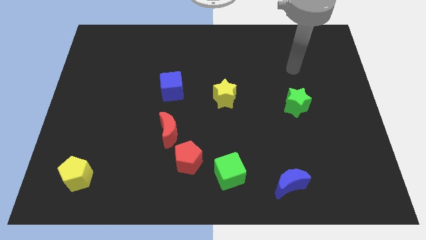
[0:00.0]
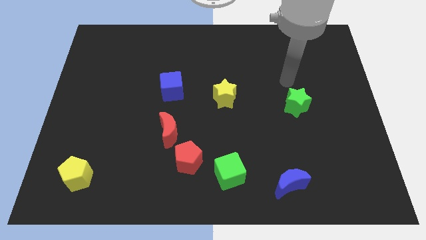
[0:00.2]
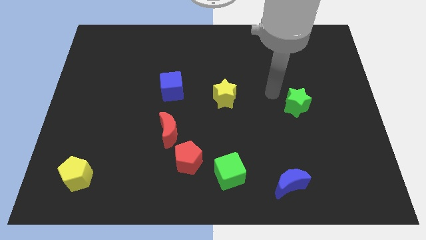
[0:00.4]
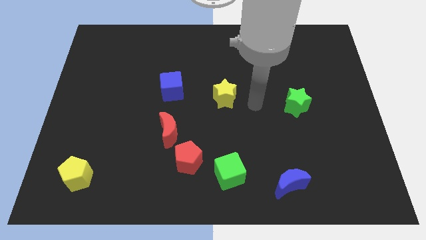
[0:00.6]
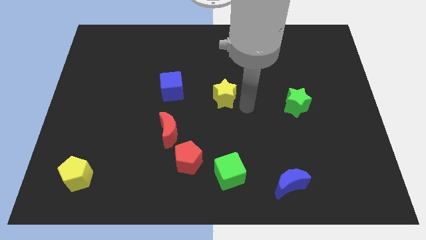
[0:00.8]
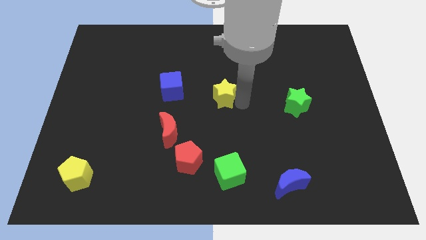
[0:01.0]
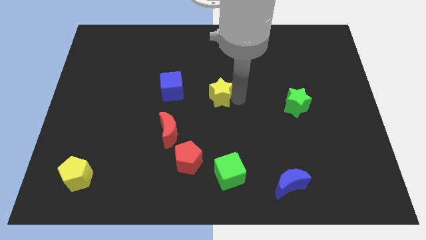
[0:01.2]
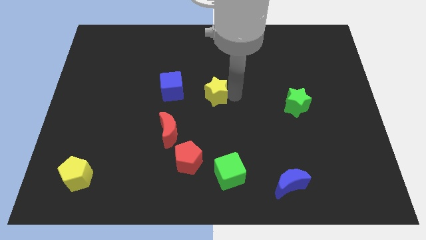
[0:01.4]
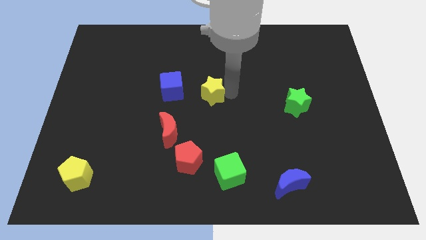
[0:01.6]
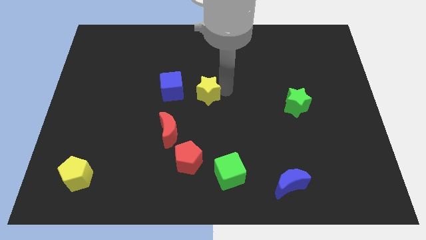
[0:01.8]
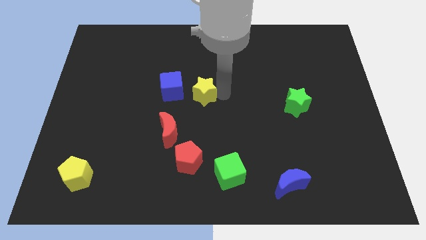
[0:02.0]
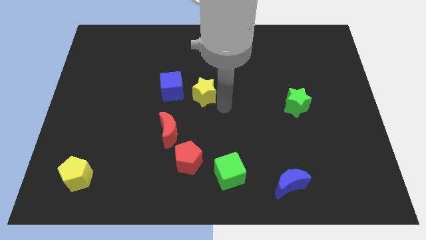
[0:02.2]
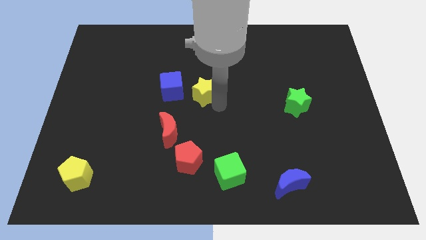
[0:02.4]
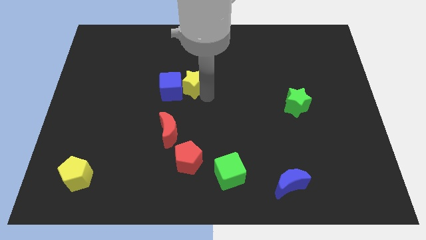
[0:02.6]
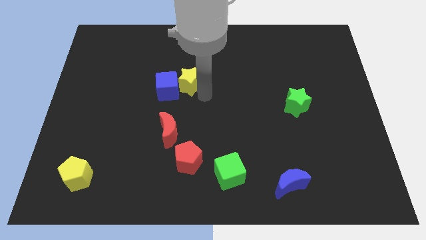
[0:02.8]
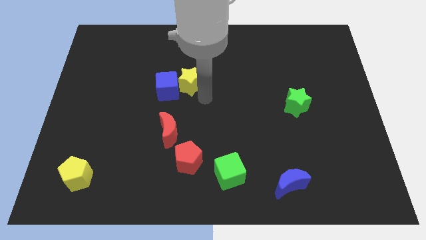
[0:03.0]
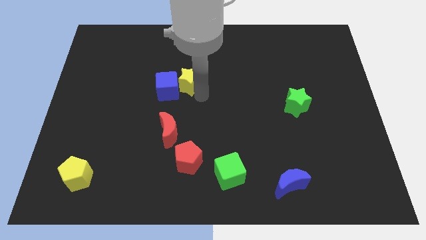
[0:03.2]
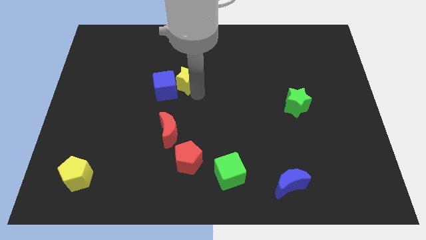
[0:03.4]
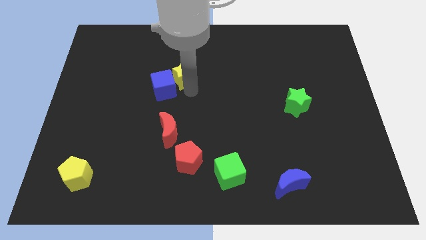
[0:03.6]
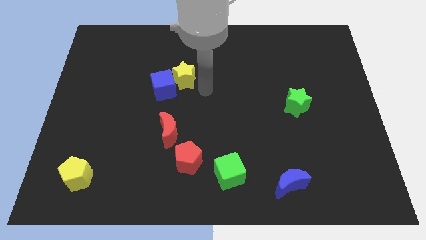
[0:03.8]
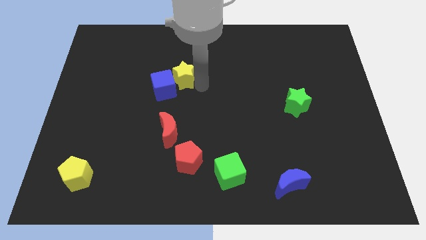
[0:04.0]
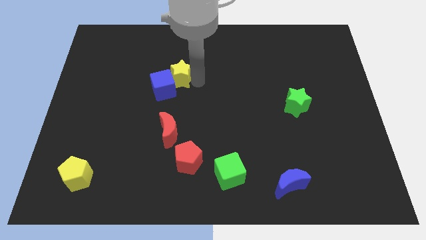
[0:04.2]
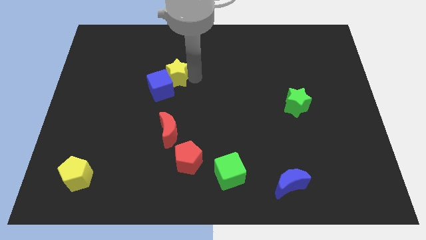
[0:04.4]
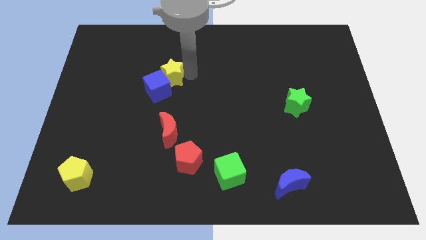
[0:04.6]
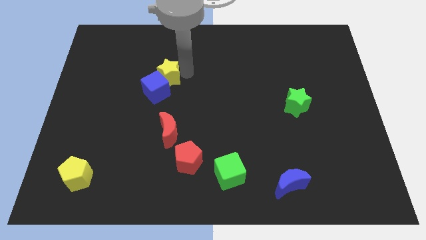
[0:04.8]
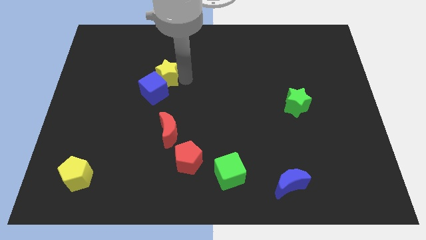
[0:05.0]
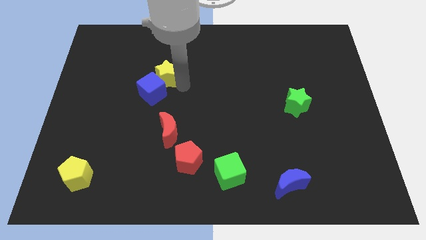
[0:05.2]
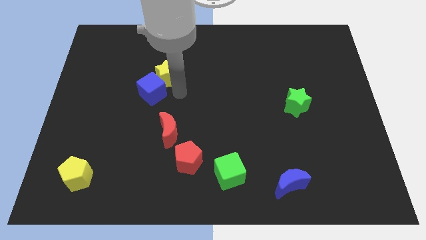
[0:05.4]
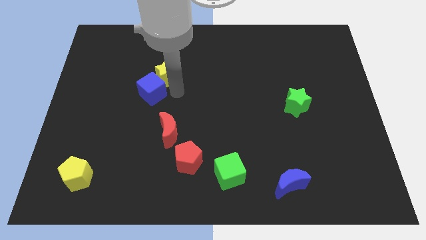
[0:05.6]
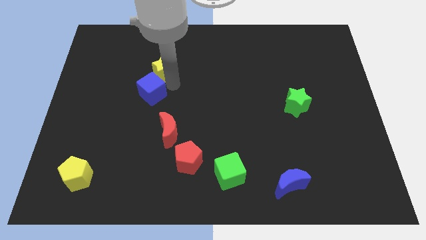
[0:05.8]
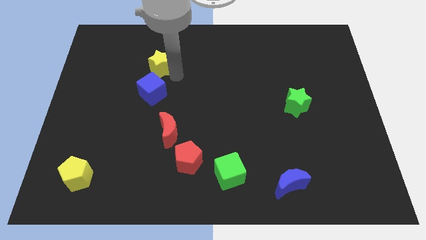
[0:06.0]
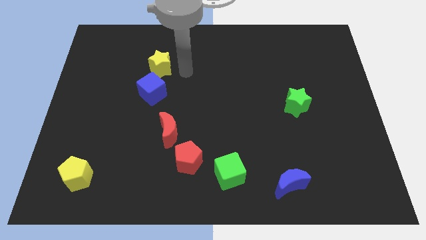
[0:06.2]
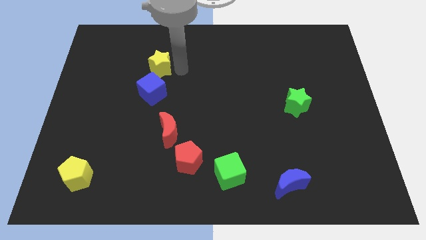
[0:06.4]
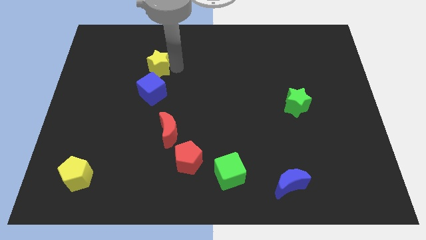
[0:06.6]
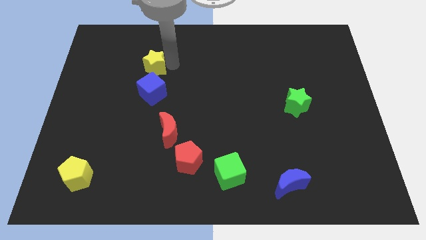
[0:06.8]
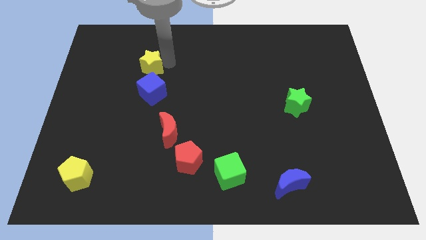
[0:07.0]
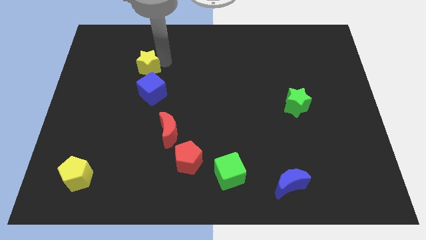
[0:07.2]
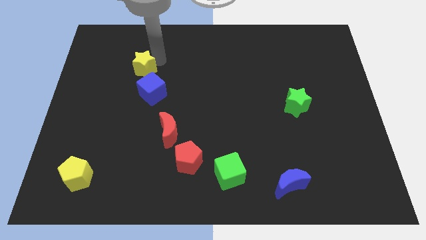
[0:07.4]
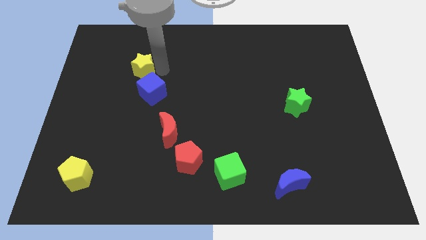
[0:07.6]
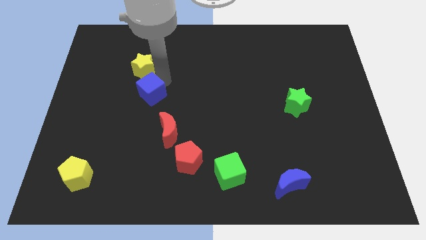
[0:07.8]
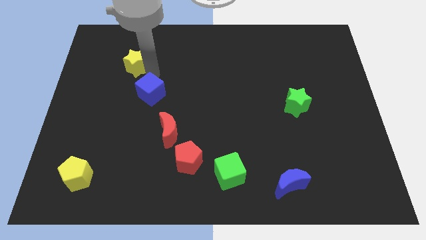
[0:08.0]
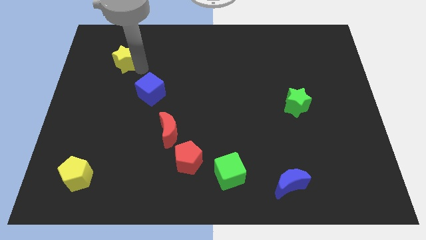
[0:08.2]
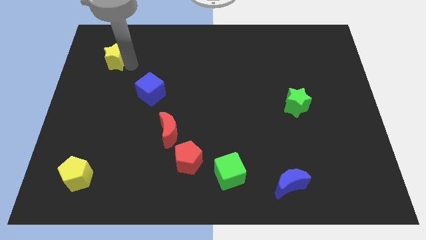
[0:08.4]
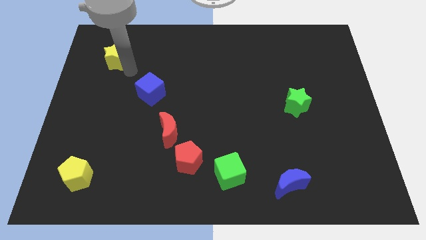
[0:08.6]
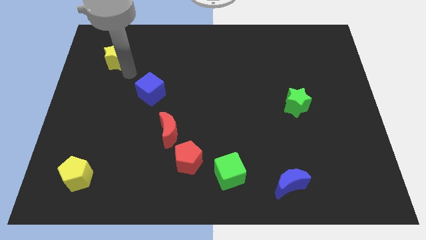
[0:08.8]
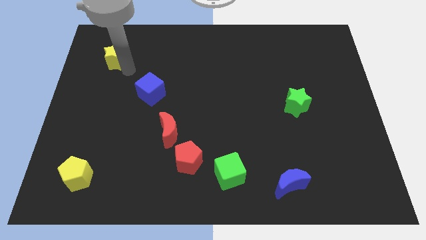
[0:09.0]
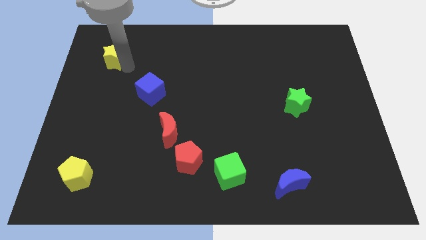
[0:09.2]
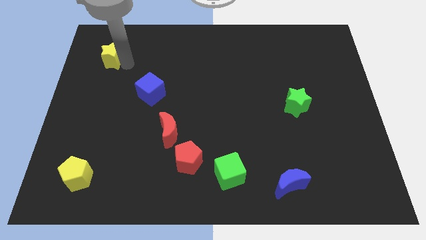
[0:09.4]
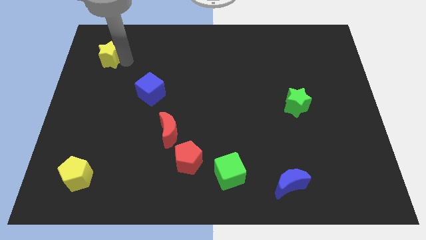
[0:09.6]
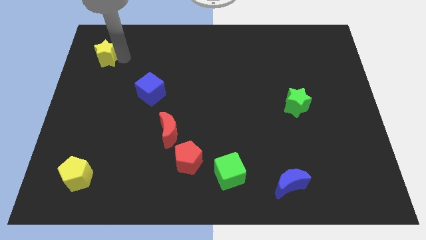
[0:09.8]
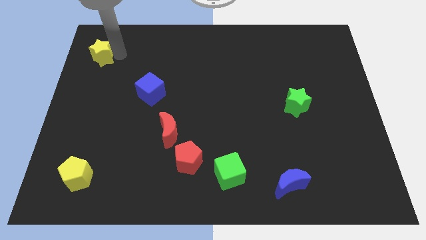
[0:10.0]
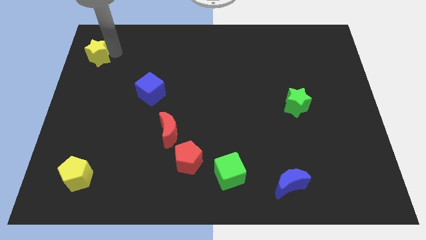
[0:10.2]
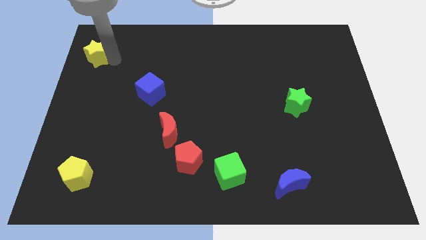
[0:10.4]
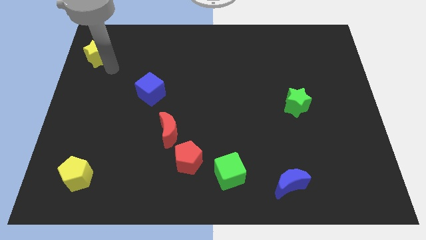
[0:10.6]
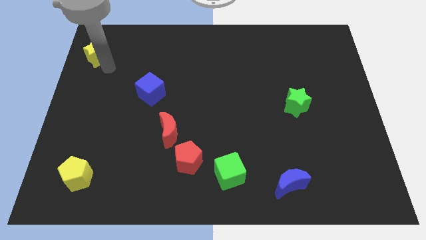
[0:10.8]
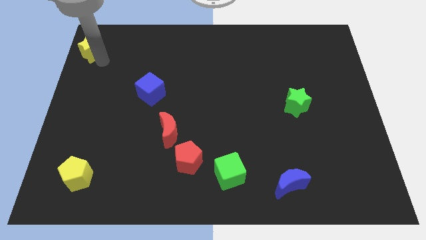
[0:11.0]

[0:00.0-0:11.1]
push the yellow star to the top left of the board

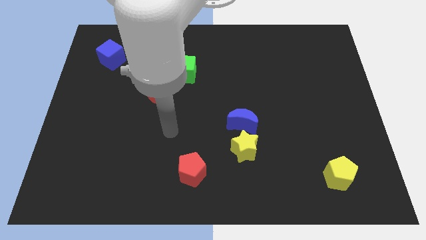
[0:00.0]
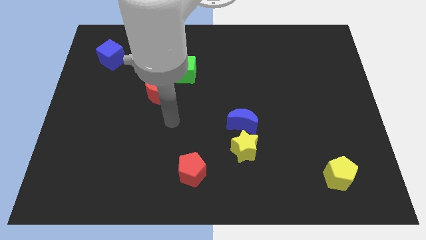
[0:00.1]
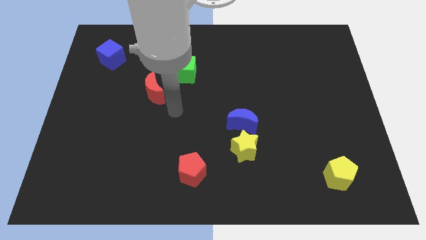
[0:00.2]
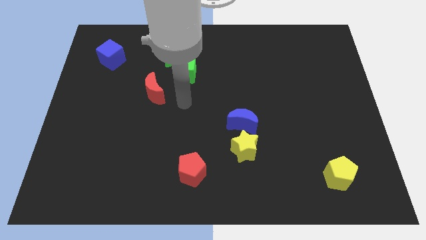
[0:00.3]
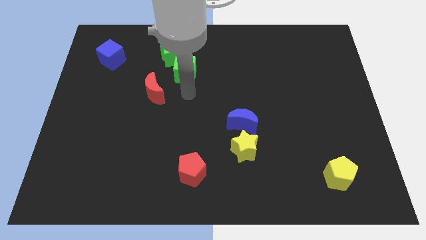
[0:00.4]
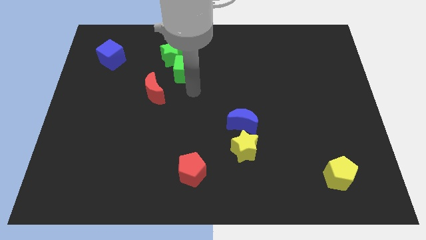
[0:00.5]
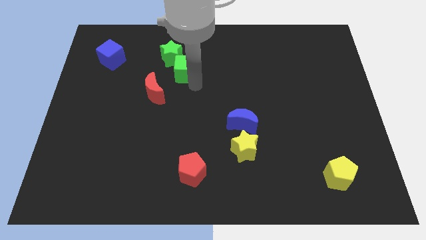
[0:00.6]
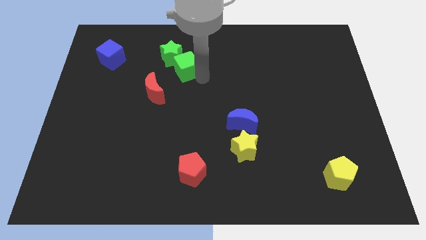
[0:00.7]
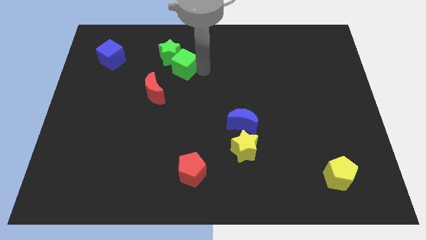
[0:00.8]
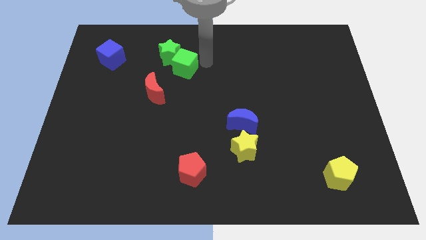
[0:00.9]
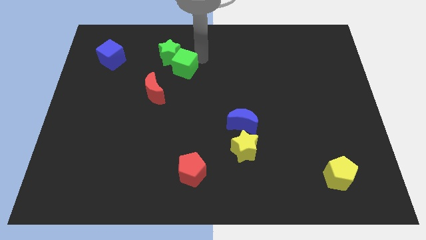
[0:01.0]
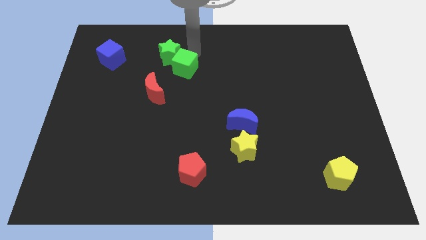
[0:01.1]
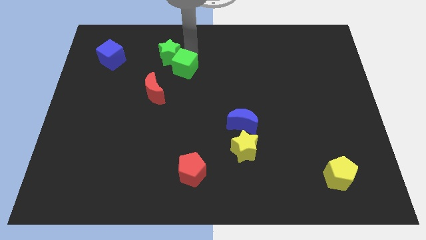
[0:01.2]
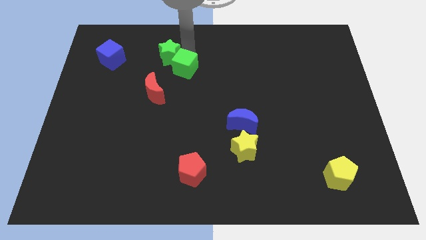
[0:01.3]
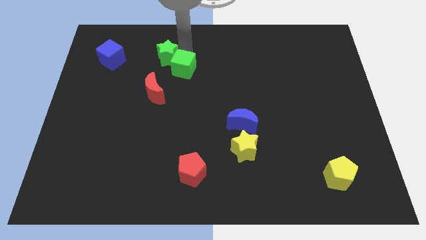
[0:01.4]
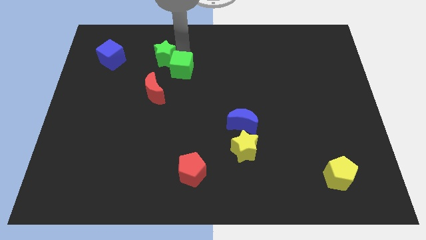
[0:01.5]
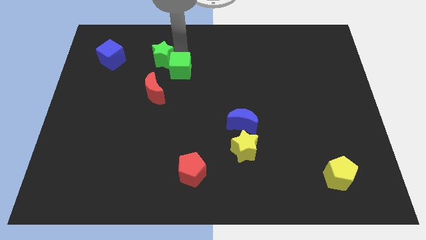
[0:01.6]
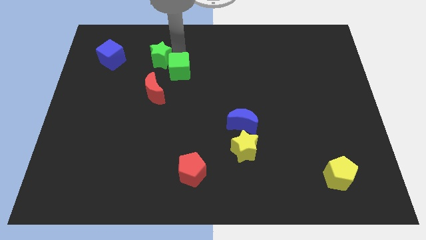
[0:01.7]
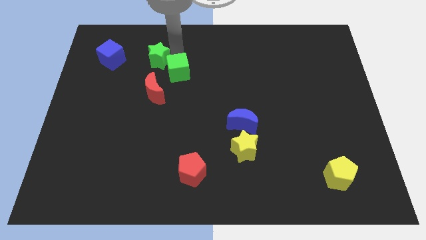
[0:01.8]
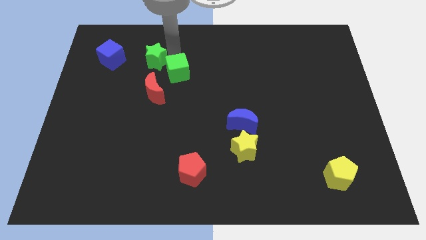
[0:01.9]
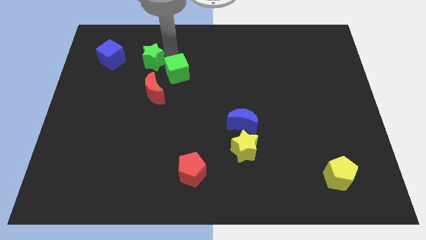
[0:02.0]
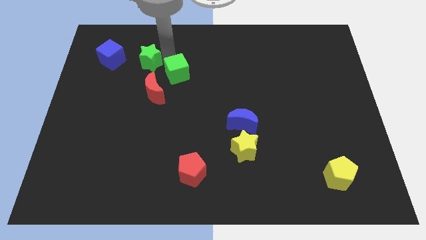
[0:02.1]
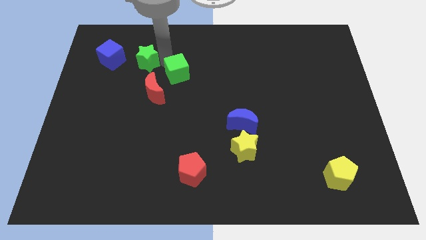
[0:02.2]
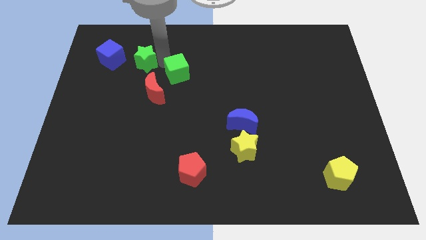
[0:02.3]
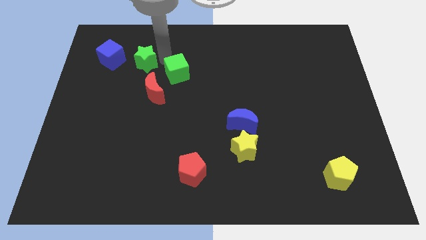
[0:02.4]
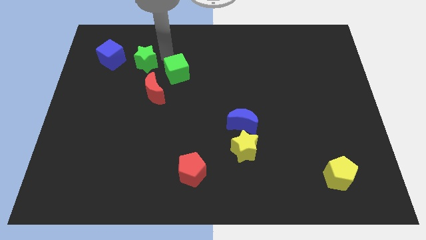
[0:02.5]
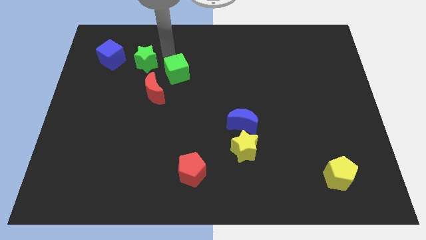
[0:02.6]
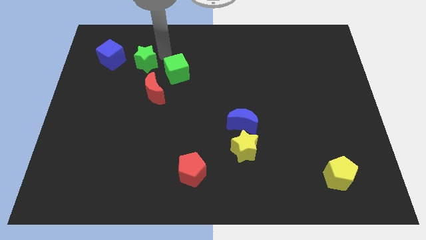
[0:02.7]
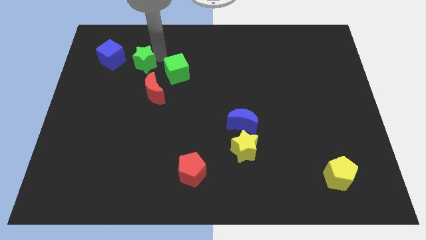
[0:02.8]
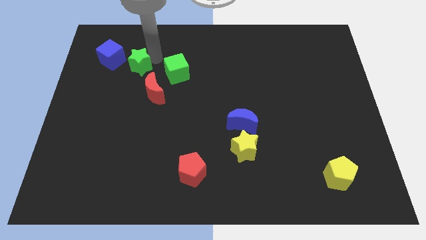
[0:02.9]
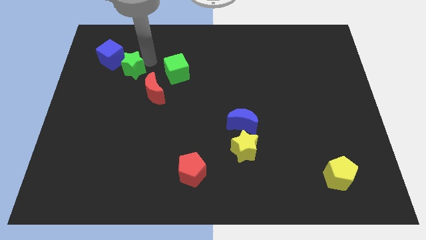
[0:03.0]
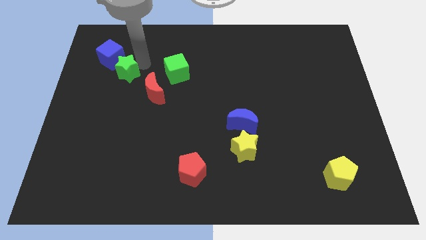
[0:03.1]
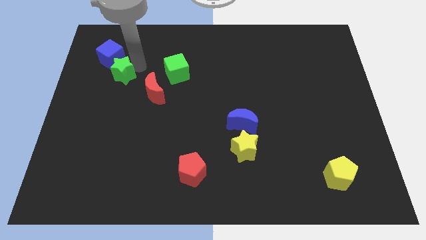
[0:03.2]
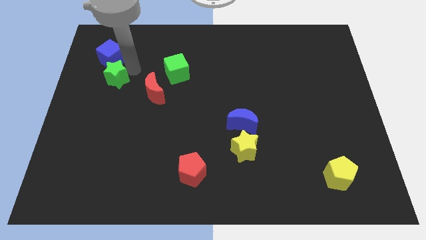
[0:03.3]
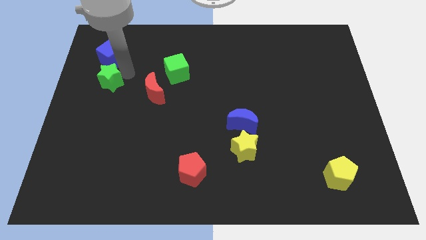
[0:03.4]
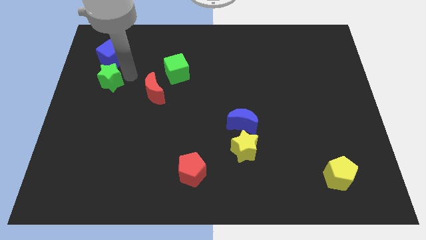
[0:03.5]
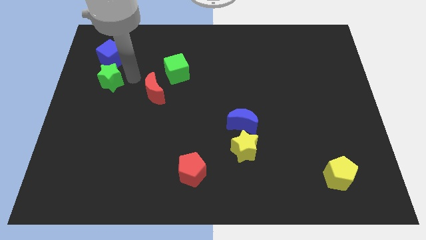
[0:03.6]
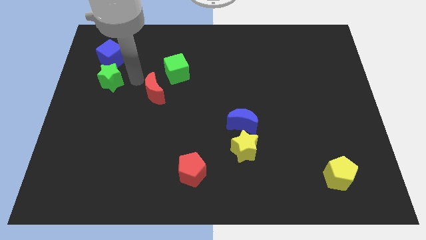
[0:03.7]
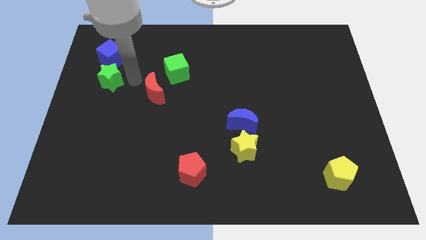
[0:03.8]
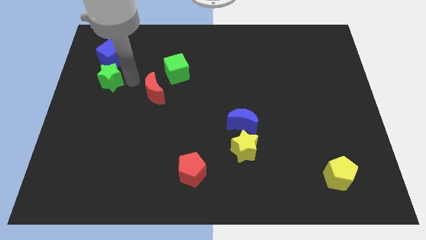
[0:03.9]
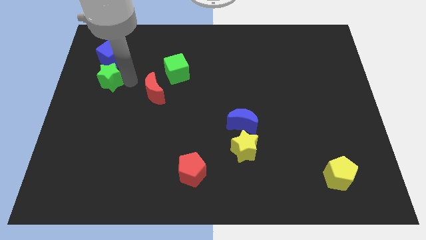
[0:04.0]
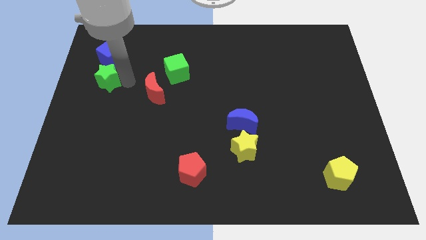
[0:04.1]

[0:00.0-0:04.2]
move the green star to the left side of the board
